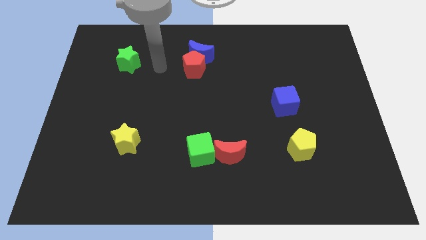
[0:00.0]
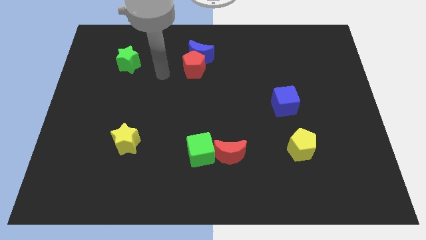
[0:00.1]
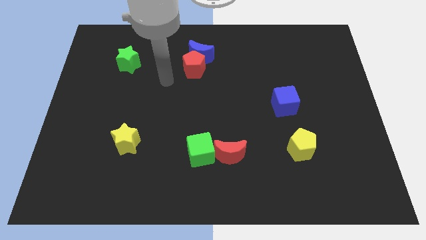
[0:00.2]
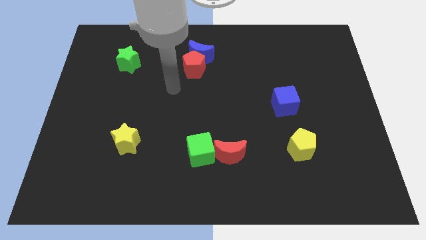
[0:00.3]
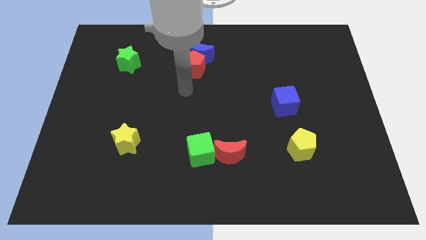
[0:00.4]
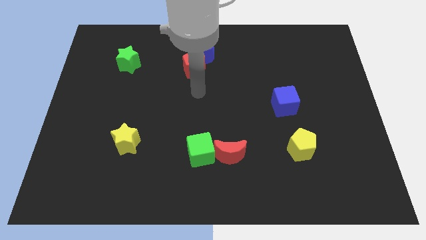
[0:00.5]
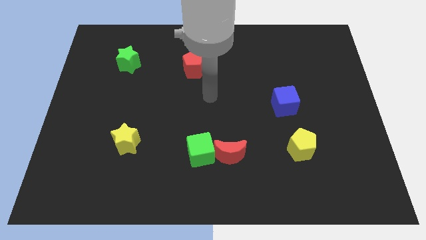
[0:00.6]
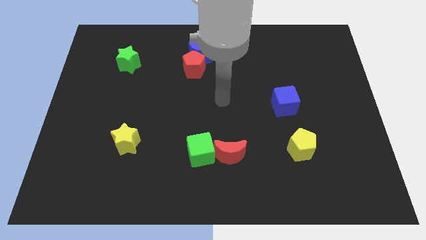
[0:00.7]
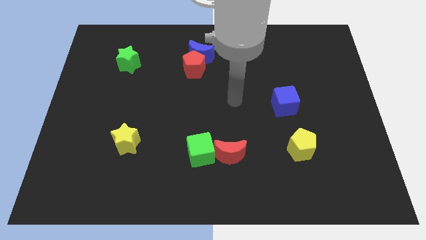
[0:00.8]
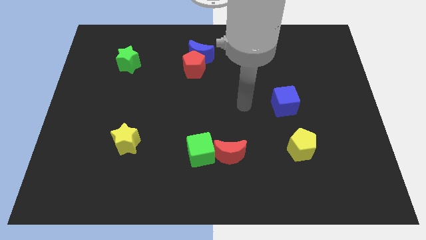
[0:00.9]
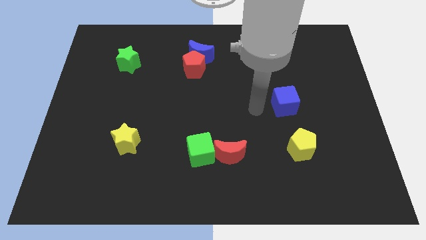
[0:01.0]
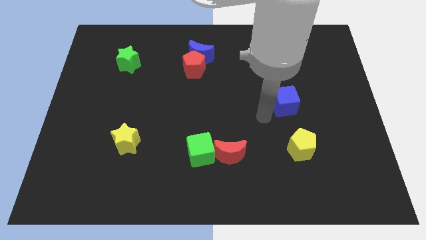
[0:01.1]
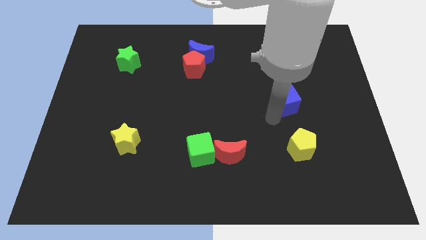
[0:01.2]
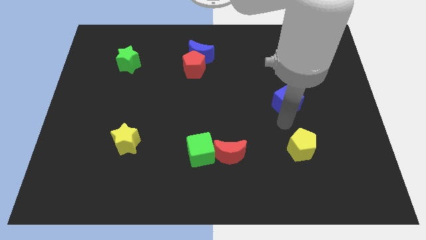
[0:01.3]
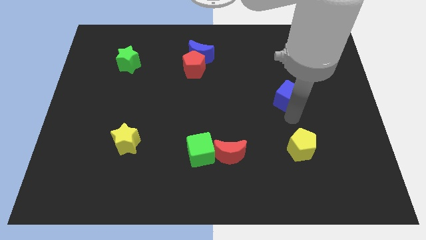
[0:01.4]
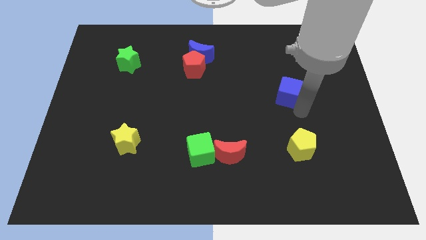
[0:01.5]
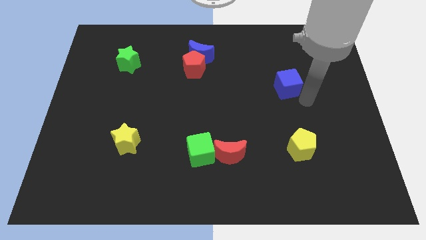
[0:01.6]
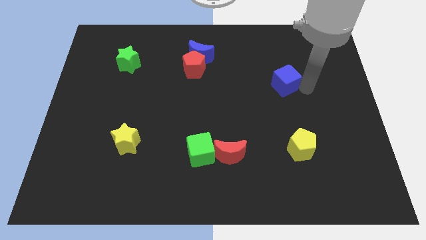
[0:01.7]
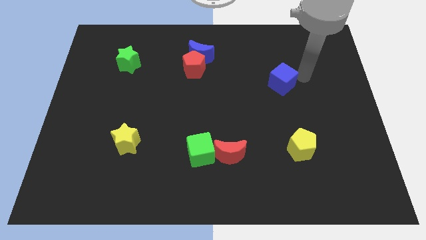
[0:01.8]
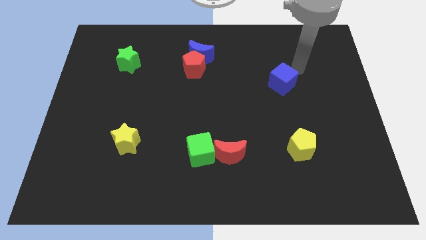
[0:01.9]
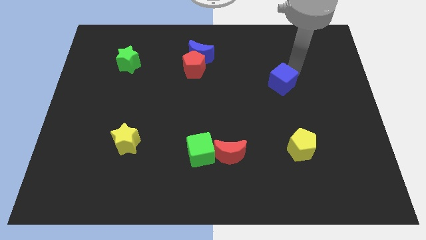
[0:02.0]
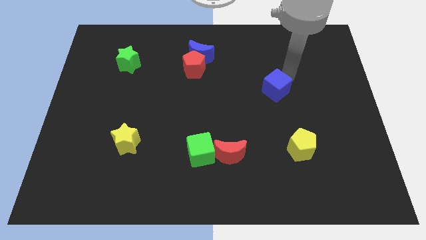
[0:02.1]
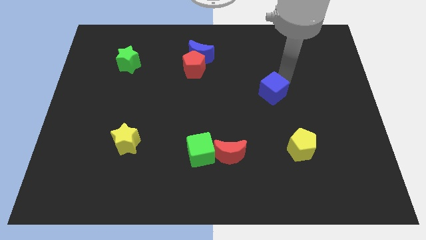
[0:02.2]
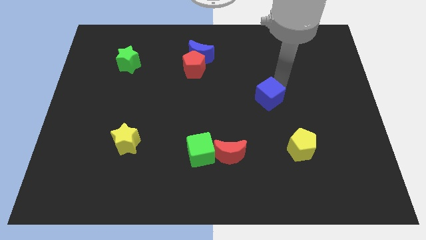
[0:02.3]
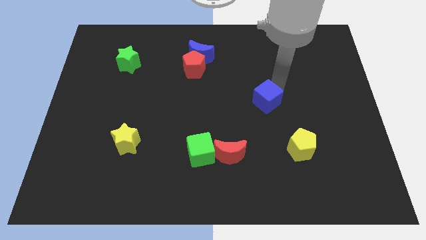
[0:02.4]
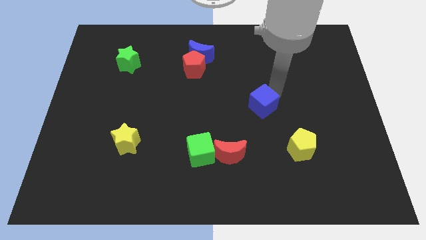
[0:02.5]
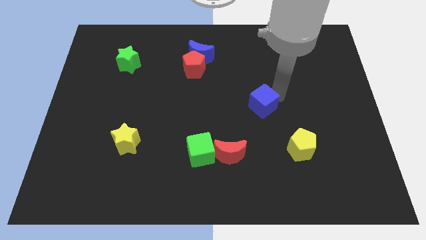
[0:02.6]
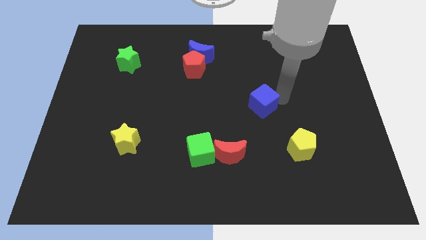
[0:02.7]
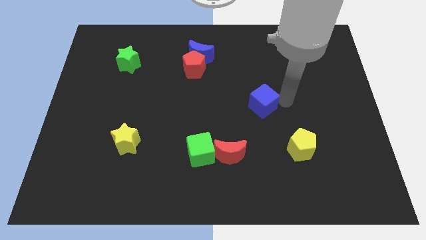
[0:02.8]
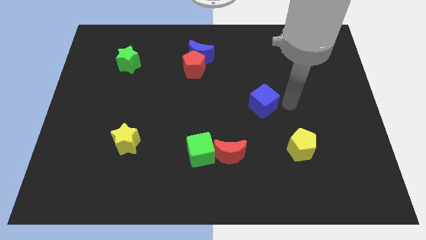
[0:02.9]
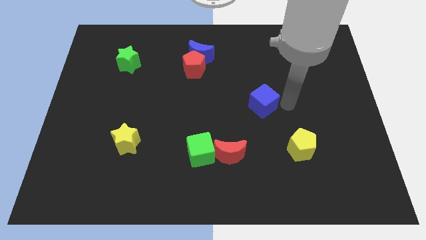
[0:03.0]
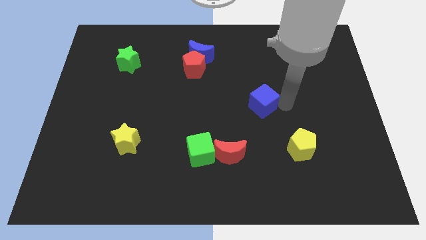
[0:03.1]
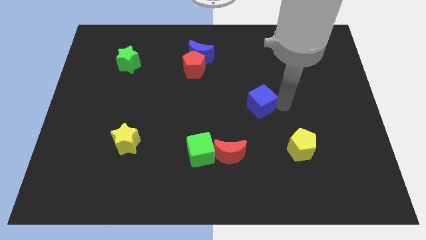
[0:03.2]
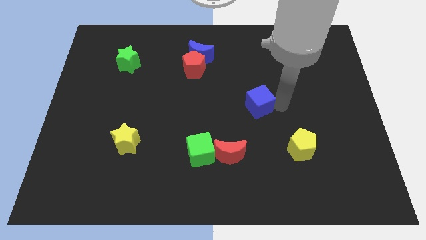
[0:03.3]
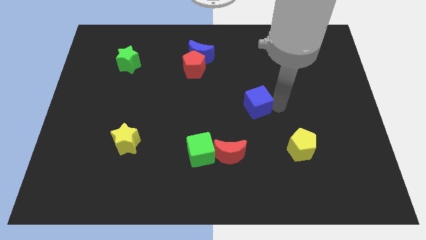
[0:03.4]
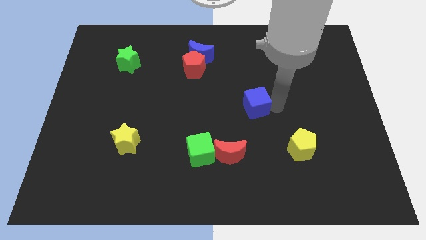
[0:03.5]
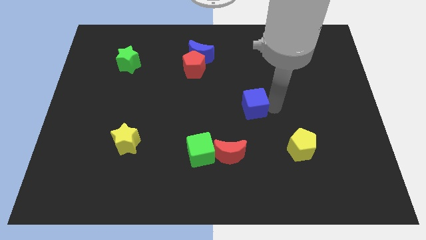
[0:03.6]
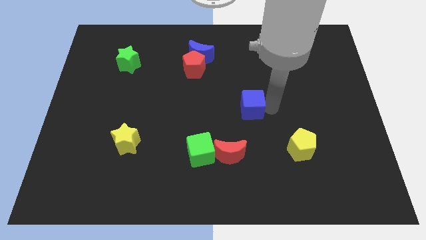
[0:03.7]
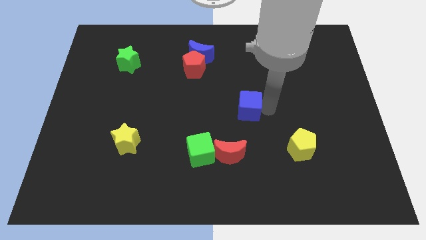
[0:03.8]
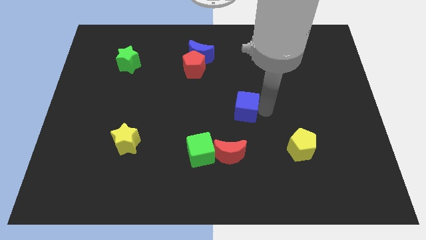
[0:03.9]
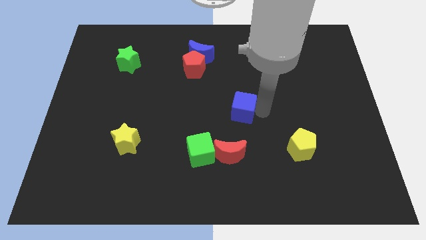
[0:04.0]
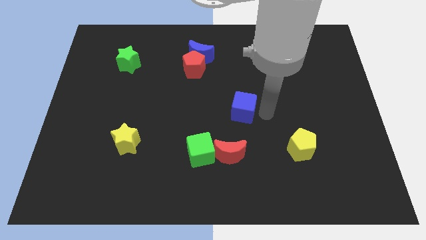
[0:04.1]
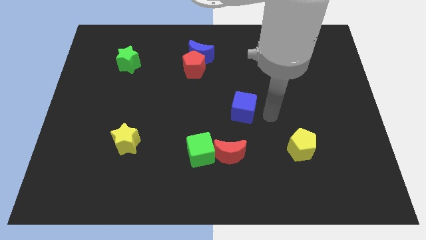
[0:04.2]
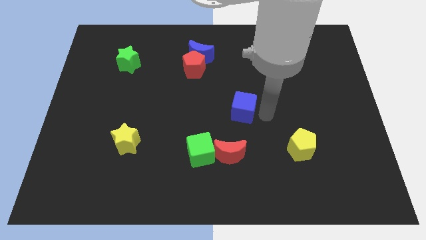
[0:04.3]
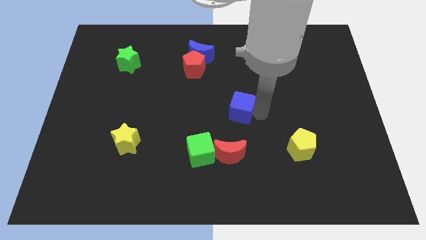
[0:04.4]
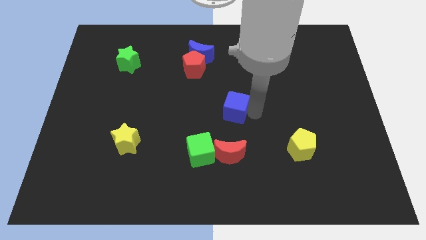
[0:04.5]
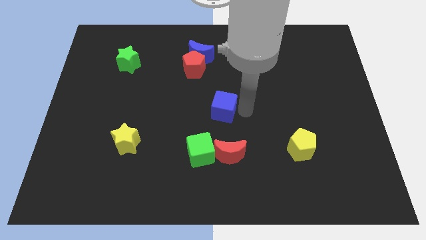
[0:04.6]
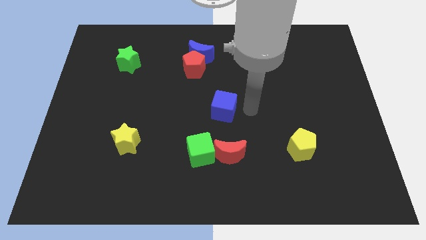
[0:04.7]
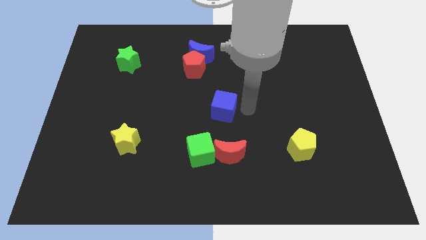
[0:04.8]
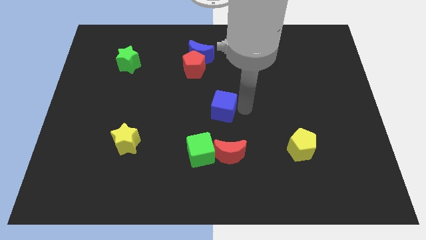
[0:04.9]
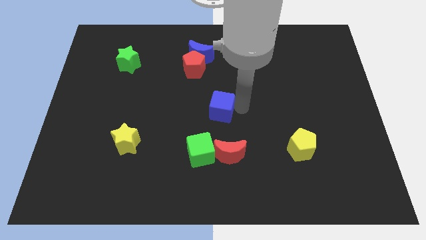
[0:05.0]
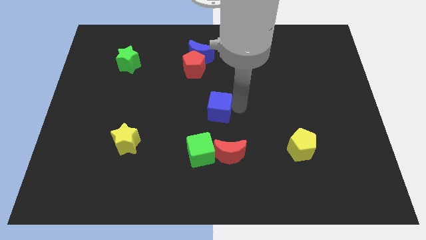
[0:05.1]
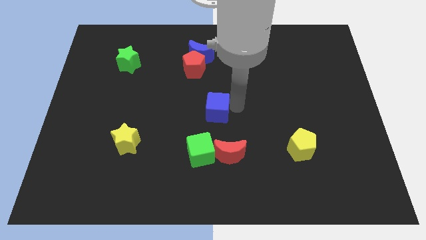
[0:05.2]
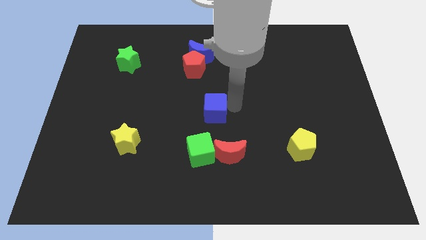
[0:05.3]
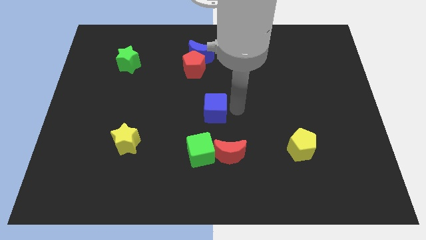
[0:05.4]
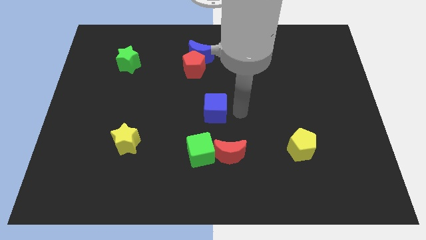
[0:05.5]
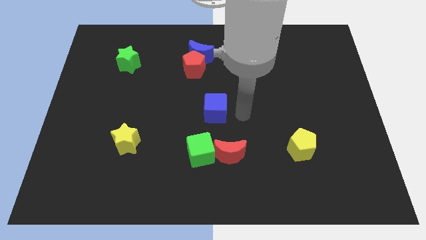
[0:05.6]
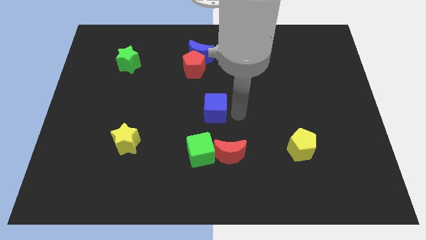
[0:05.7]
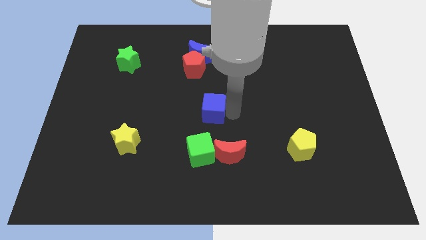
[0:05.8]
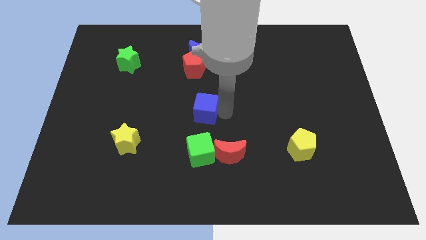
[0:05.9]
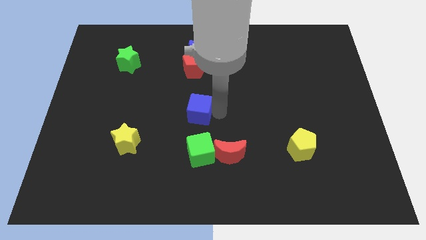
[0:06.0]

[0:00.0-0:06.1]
push the blue cube to the left

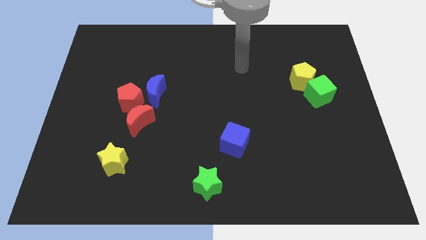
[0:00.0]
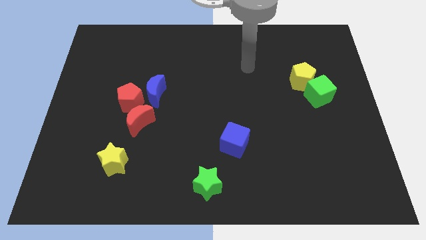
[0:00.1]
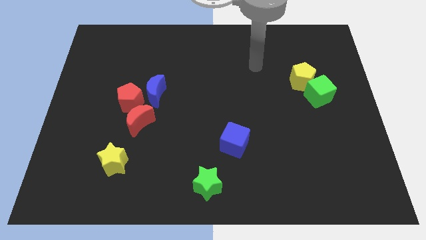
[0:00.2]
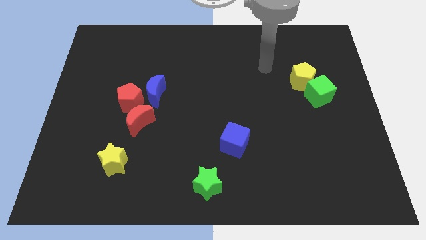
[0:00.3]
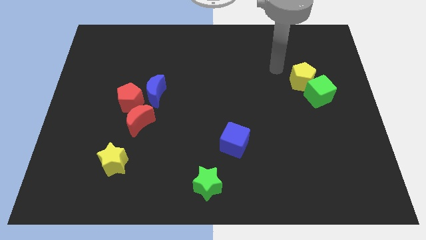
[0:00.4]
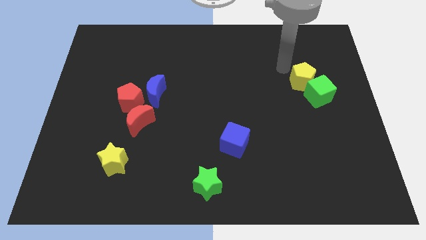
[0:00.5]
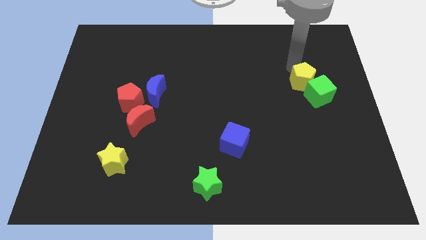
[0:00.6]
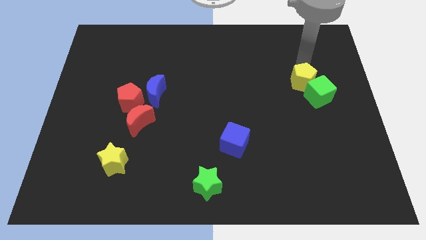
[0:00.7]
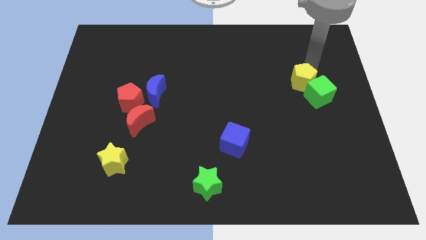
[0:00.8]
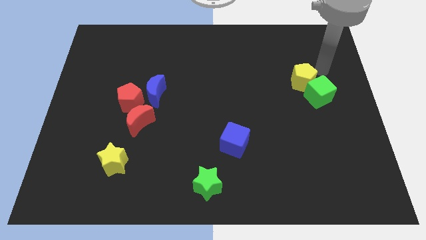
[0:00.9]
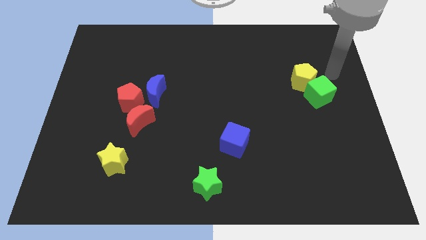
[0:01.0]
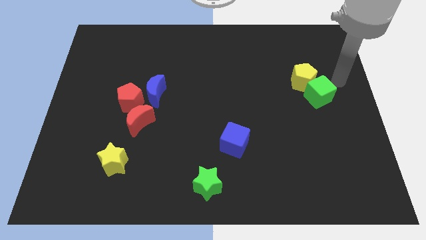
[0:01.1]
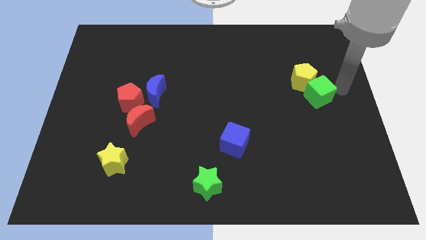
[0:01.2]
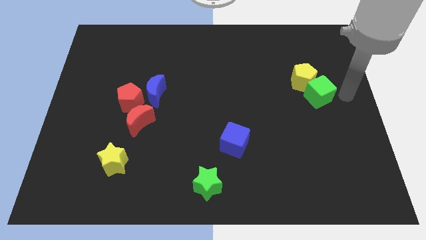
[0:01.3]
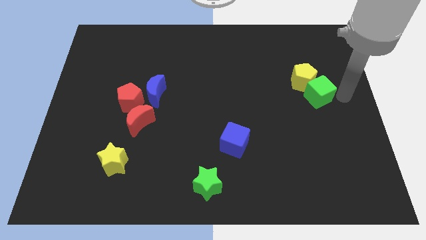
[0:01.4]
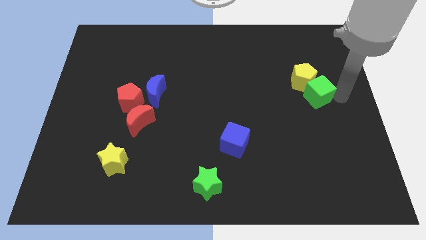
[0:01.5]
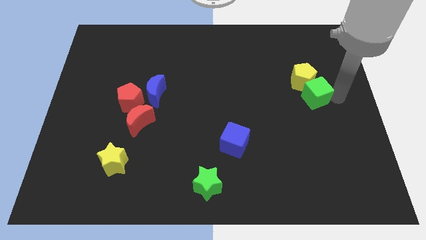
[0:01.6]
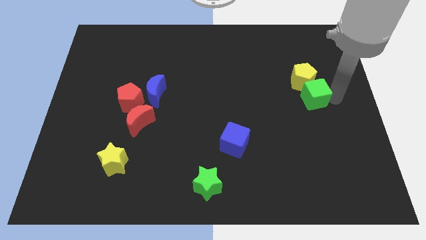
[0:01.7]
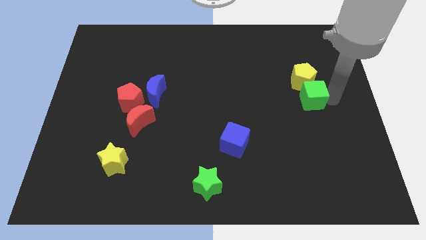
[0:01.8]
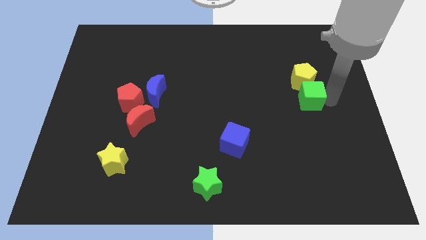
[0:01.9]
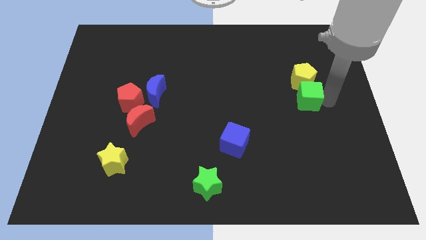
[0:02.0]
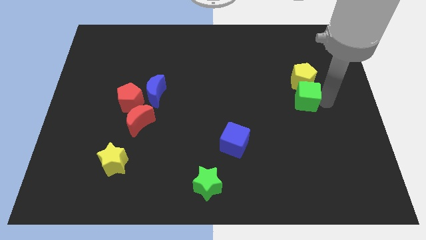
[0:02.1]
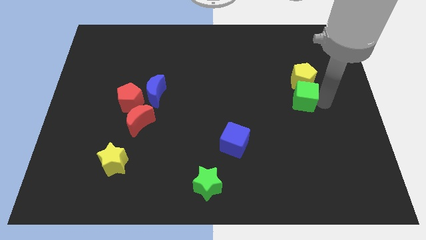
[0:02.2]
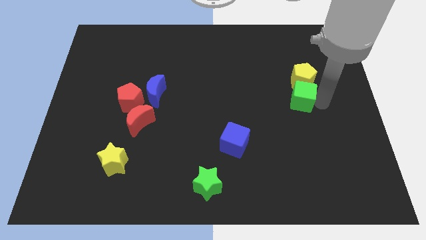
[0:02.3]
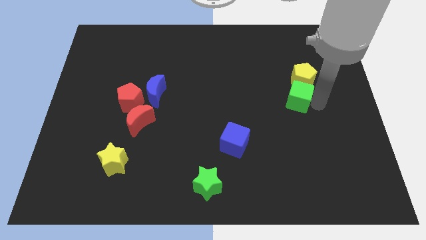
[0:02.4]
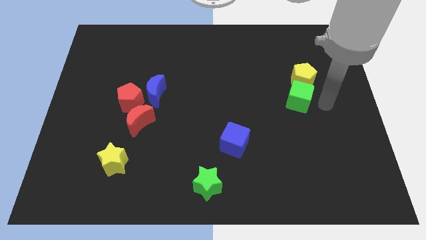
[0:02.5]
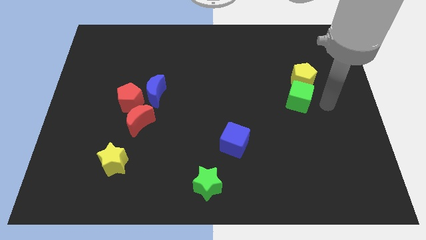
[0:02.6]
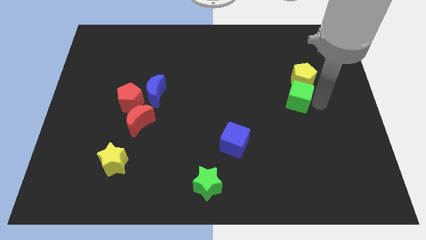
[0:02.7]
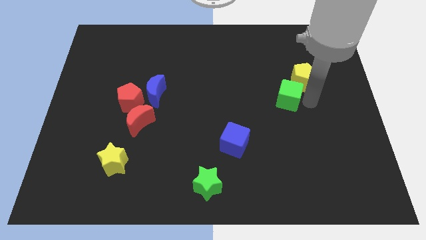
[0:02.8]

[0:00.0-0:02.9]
push the green cube left a bit
